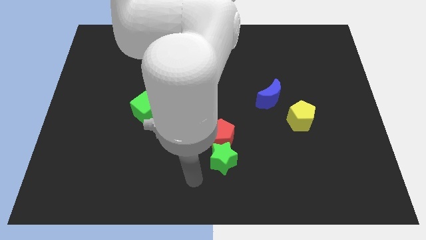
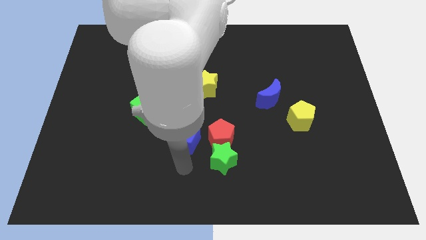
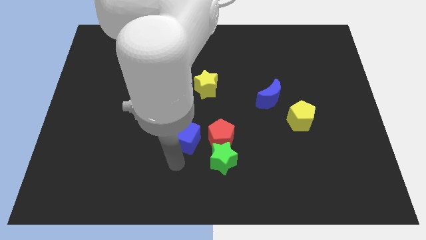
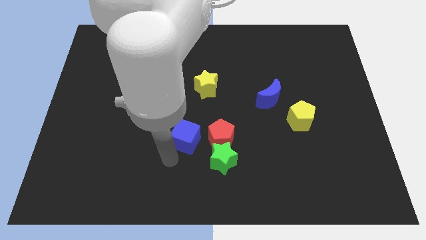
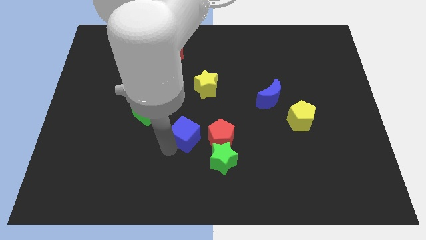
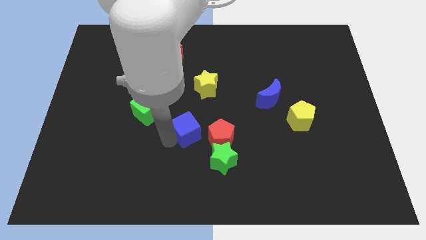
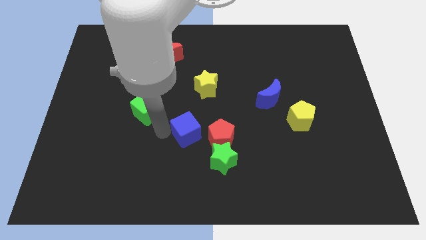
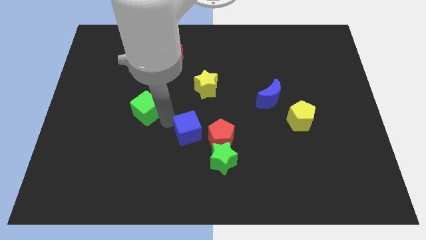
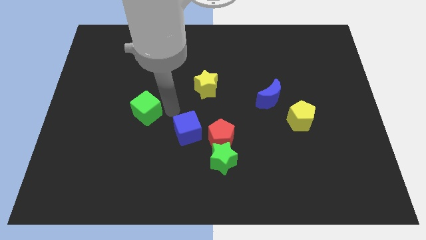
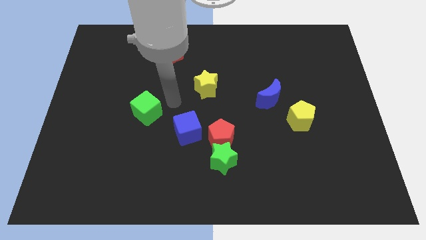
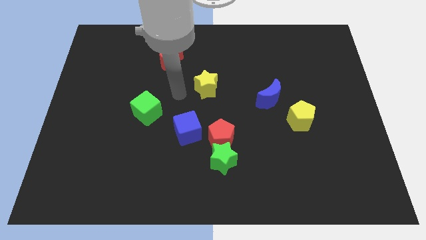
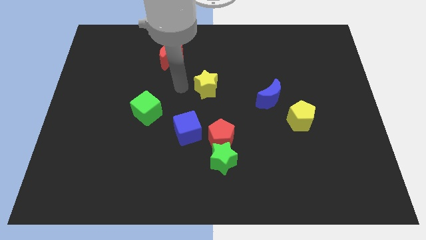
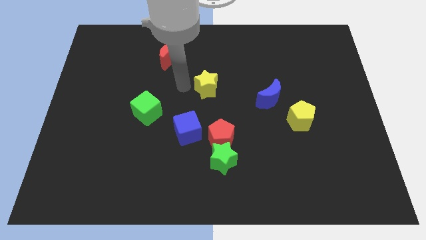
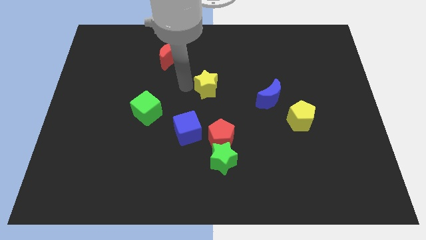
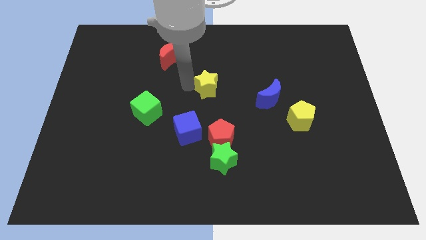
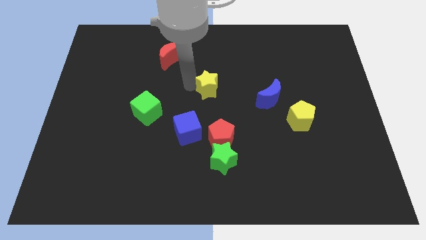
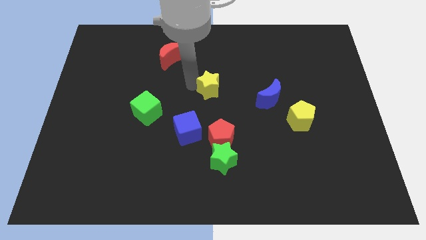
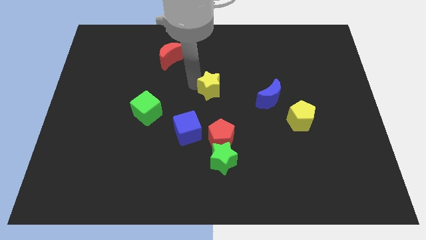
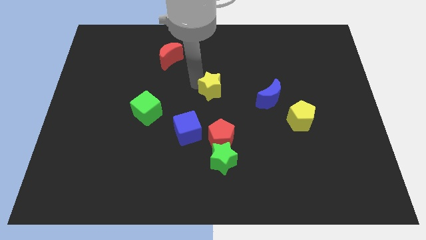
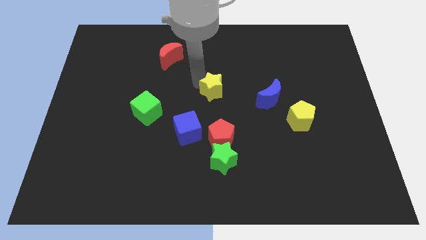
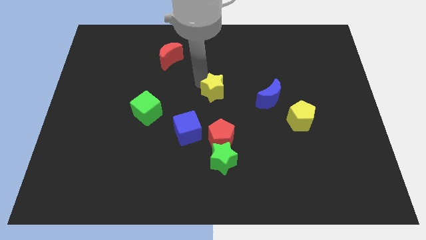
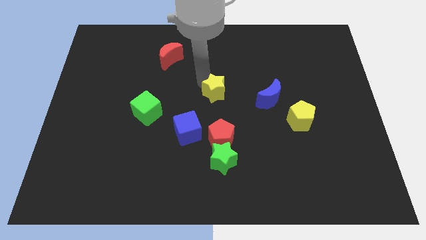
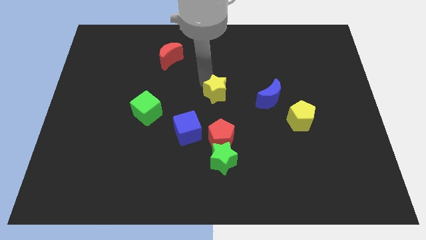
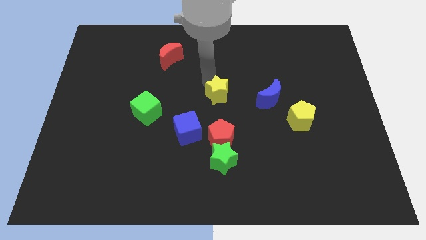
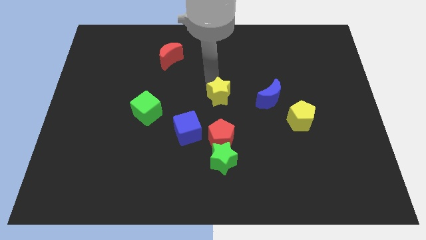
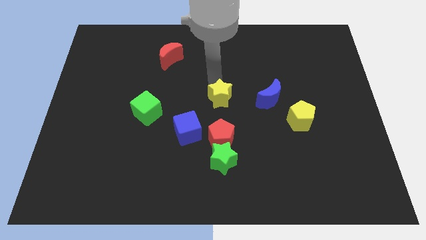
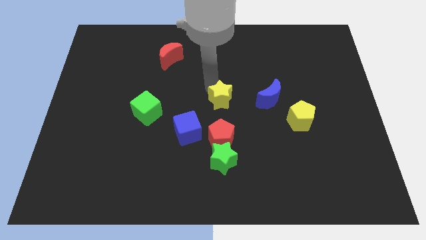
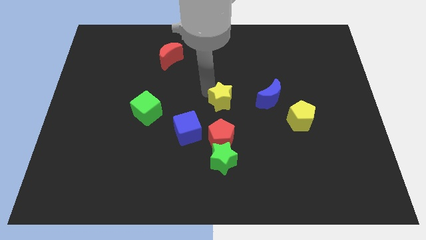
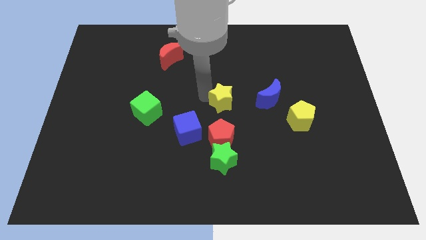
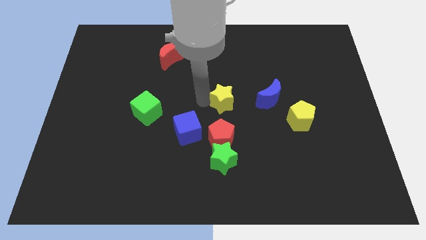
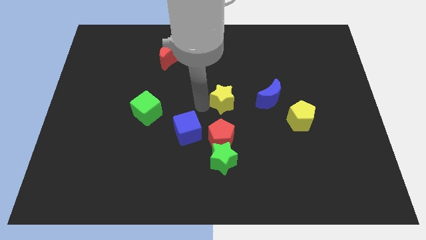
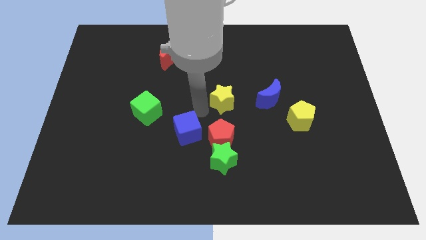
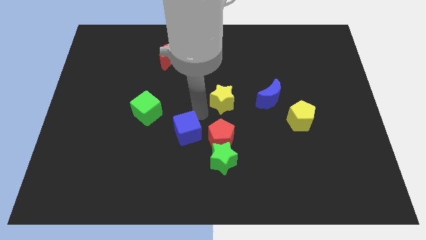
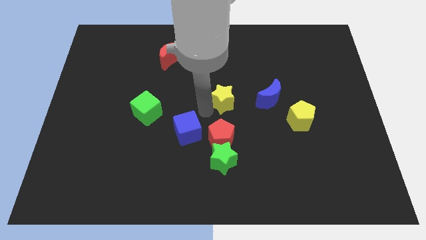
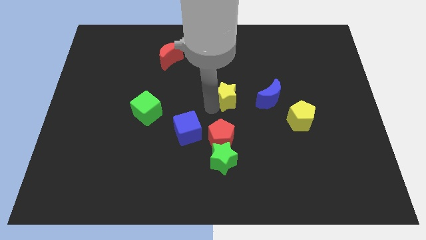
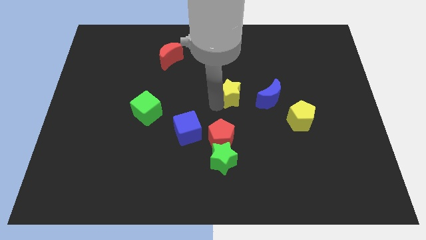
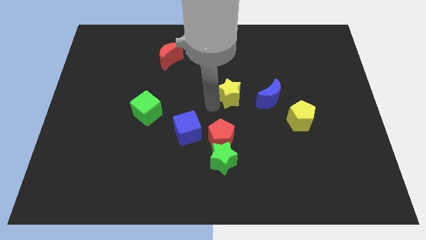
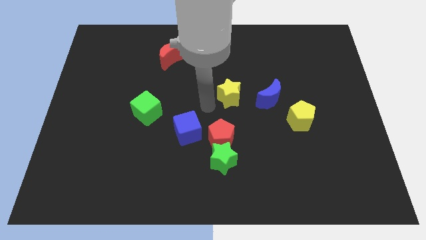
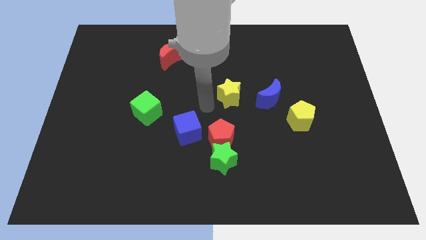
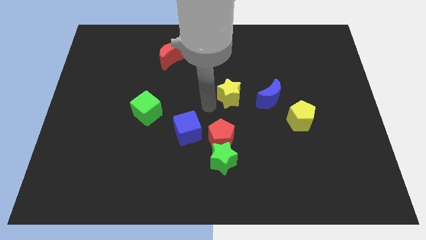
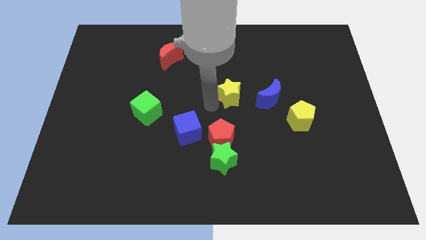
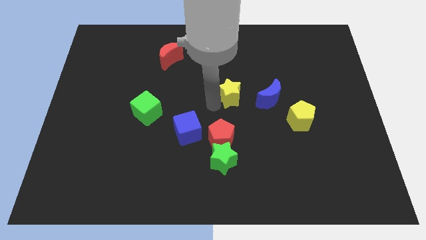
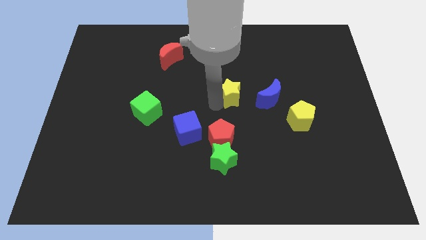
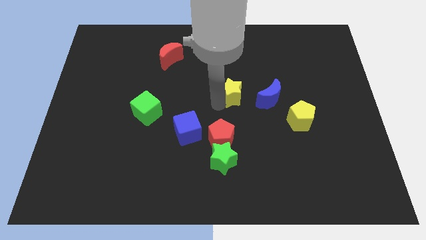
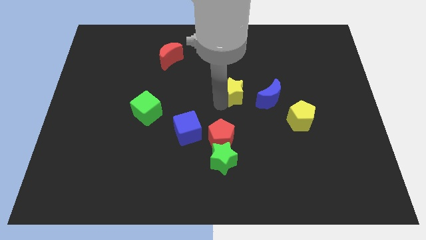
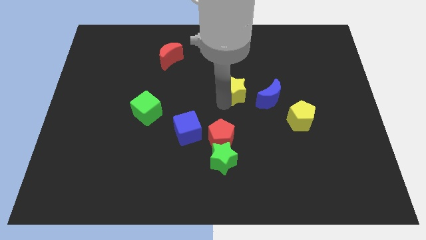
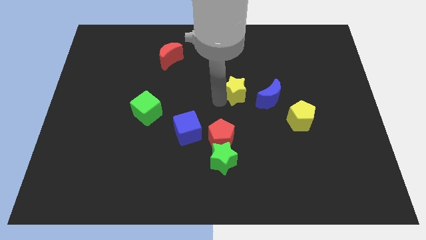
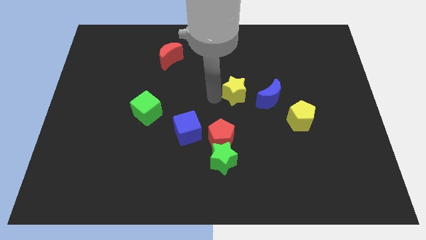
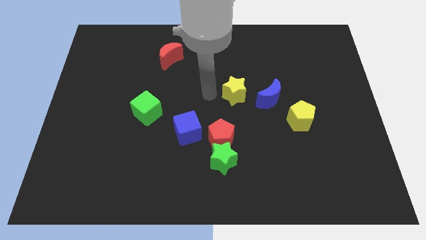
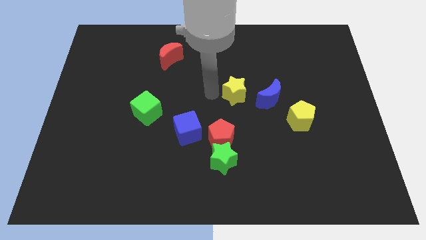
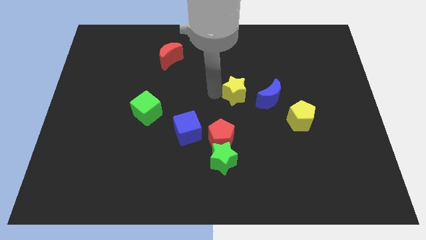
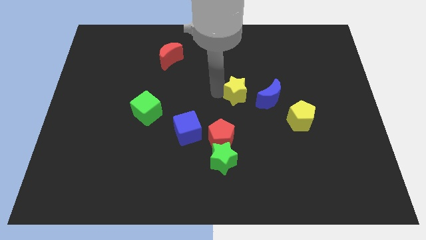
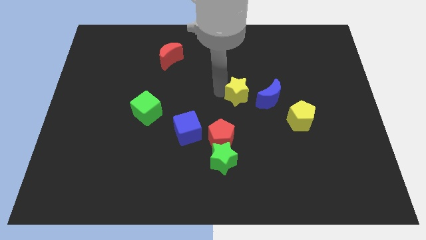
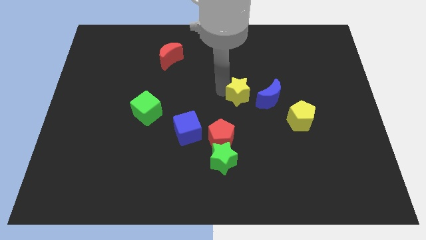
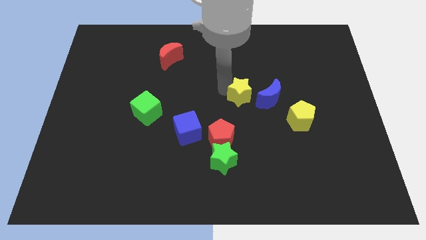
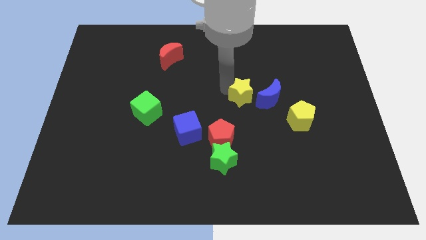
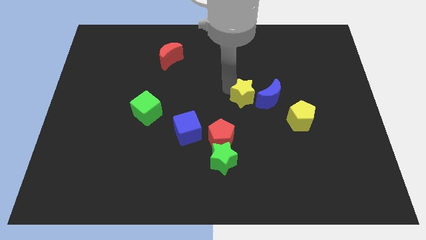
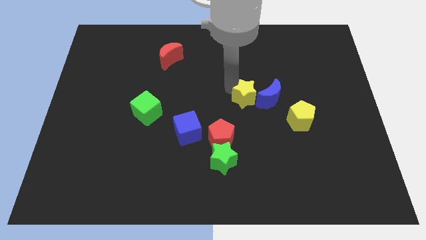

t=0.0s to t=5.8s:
slide the yellow star next to the blue moon

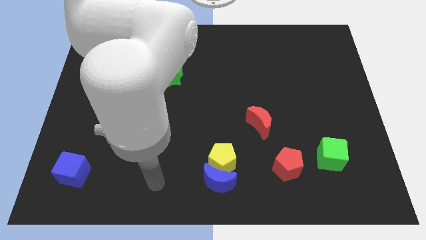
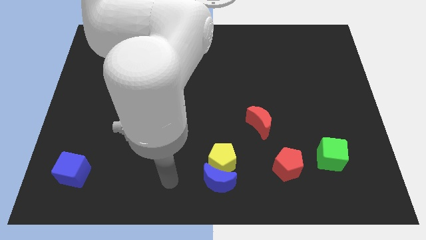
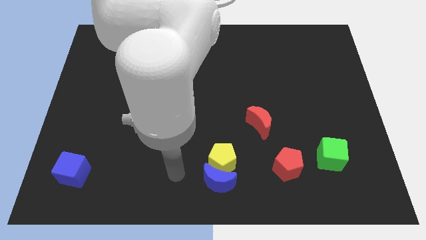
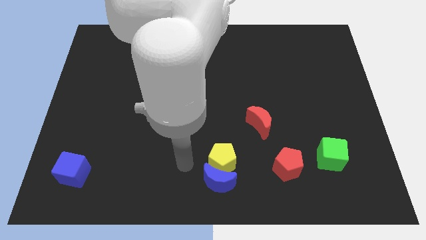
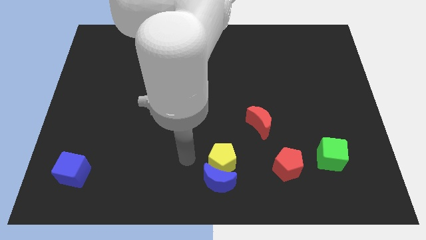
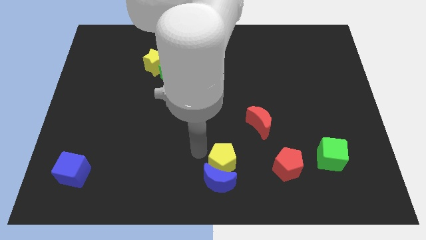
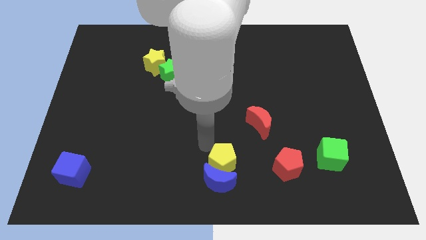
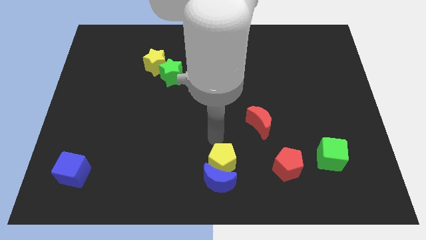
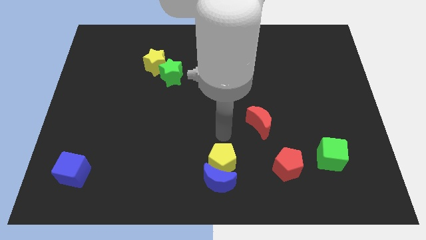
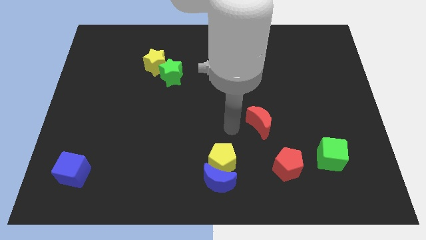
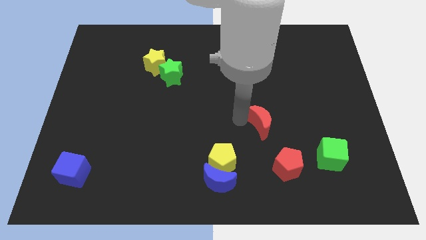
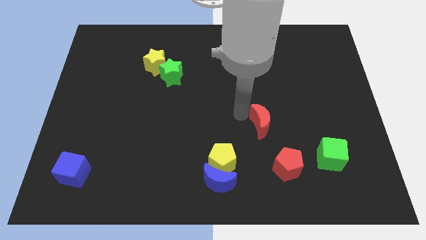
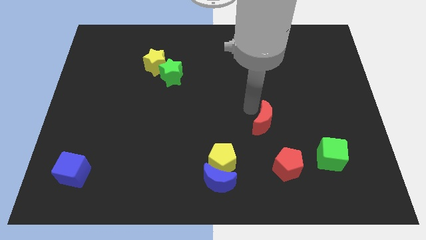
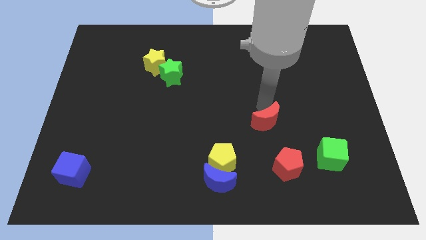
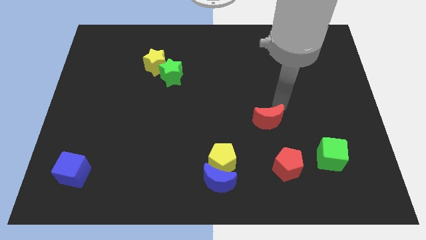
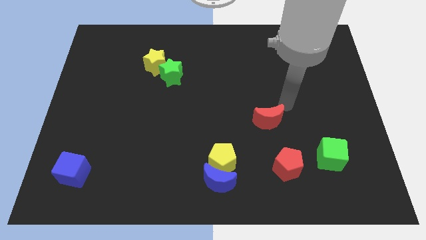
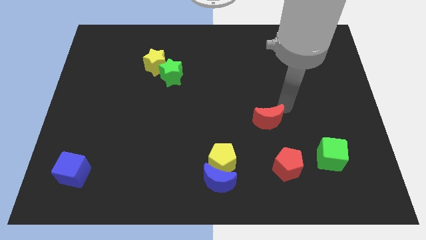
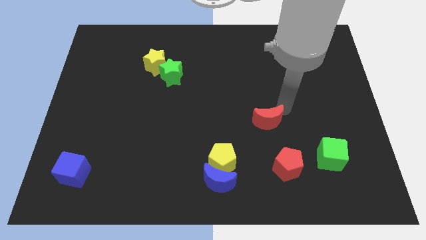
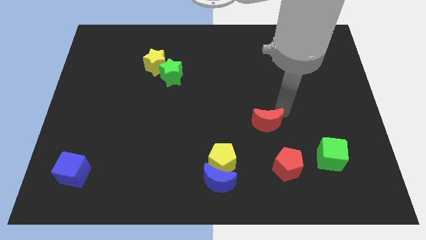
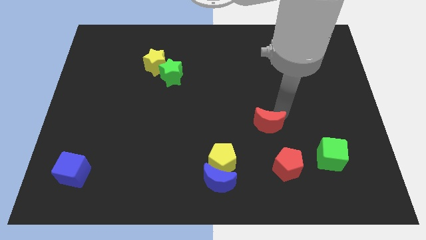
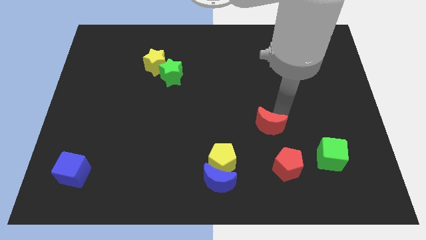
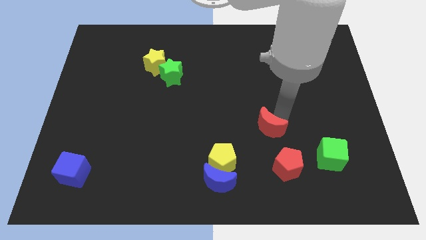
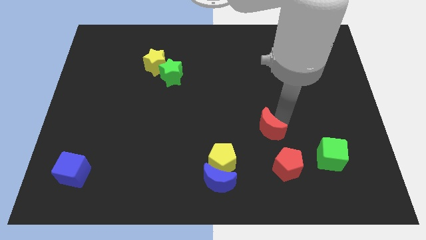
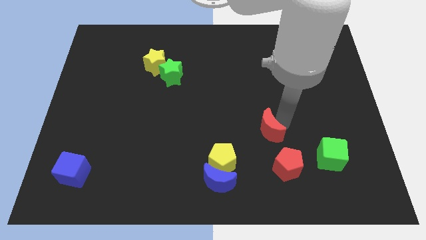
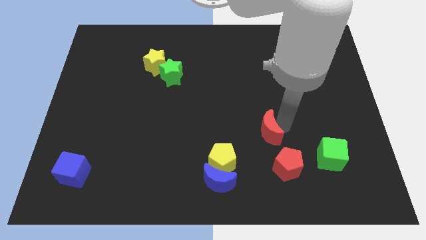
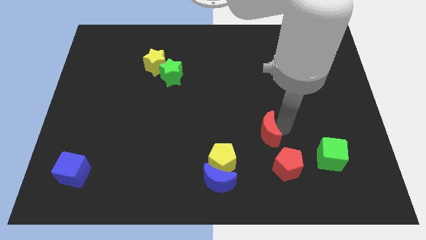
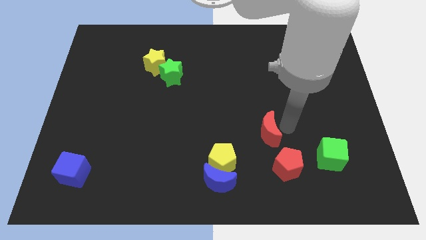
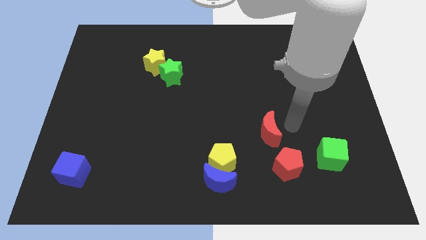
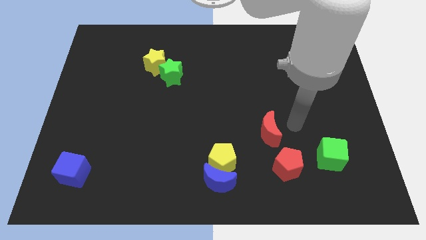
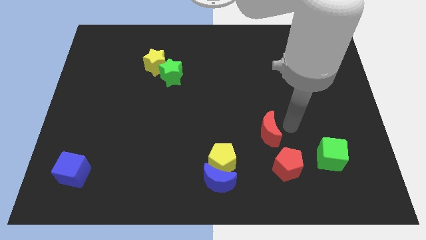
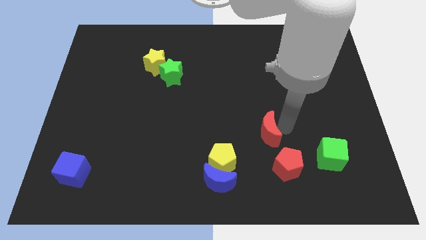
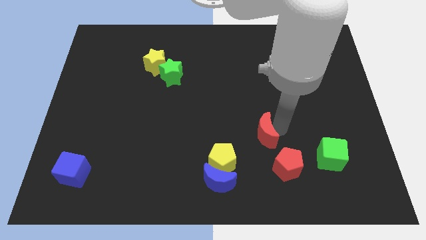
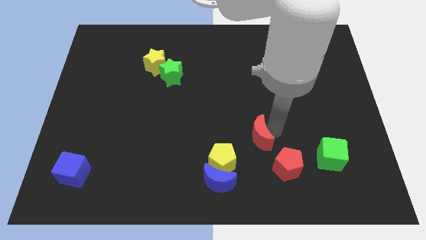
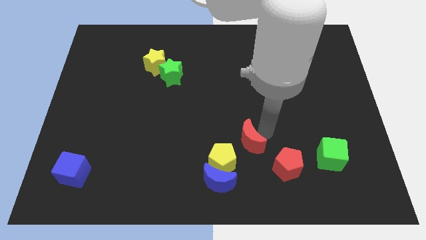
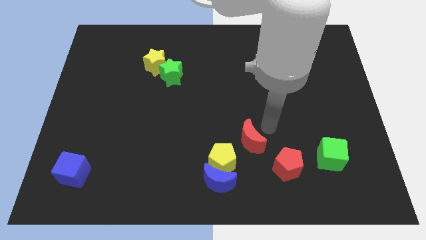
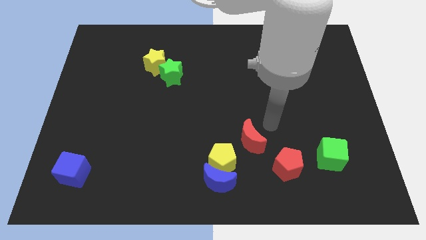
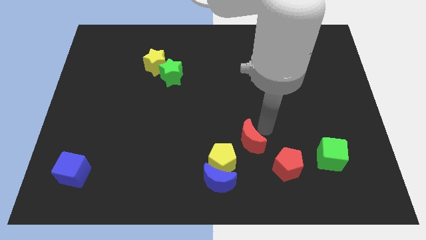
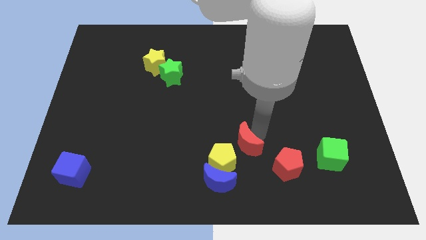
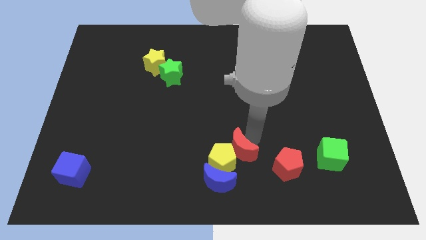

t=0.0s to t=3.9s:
slide the red moon next to the yellow pentagon
